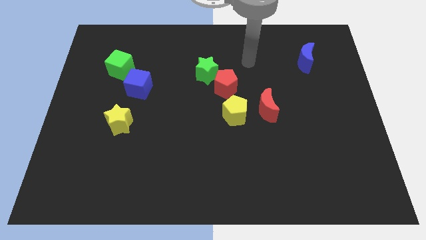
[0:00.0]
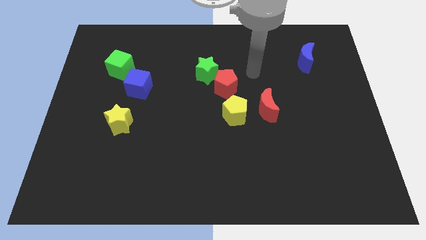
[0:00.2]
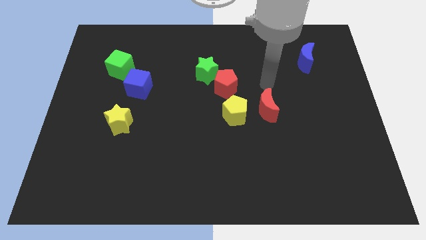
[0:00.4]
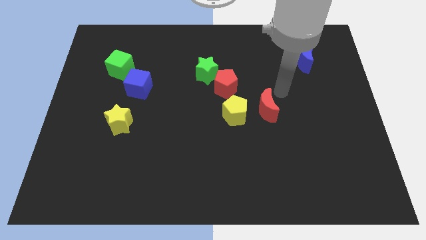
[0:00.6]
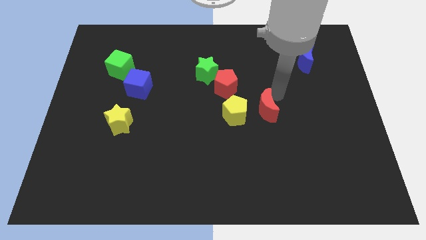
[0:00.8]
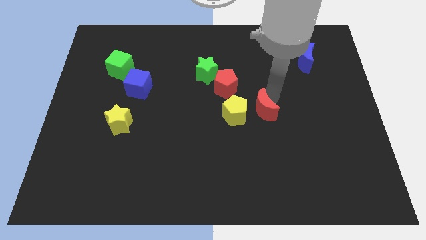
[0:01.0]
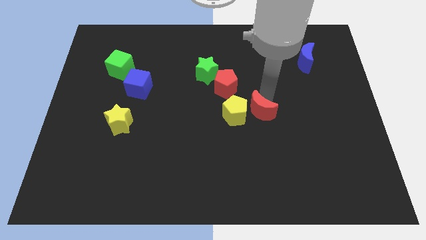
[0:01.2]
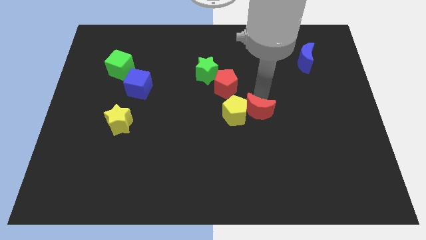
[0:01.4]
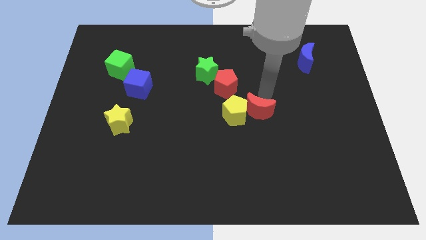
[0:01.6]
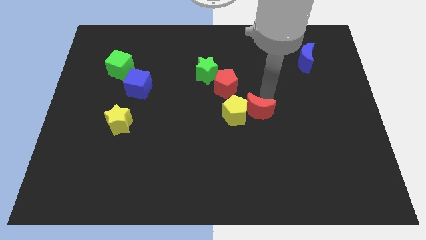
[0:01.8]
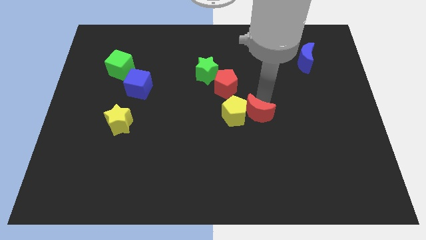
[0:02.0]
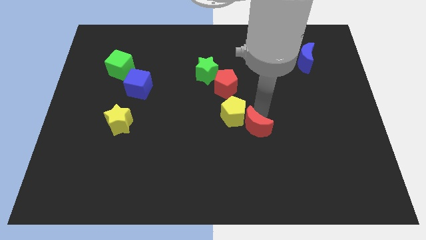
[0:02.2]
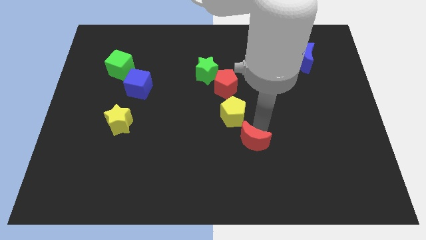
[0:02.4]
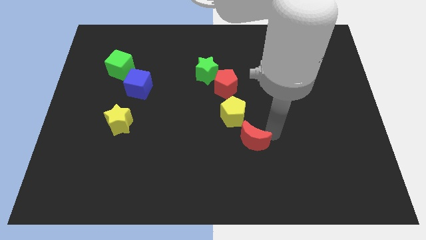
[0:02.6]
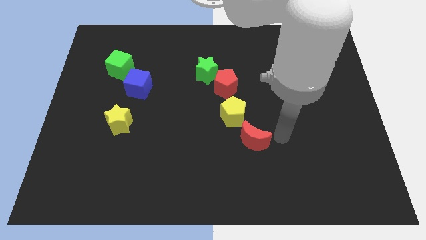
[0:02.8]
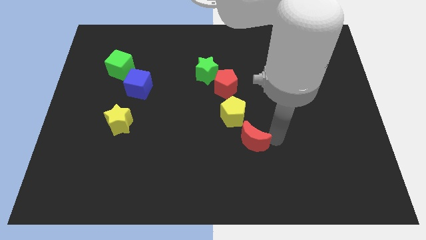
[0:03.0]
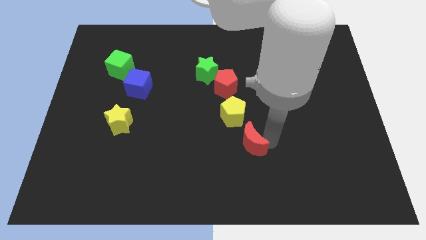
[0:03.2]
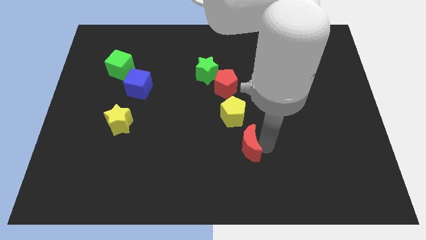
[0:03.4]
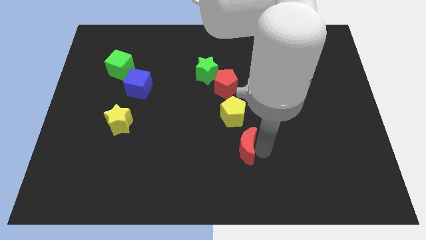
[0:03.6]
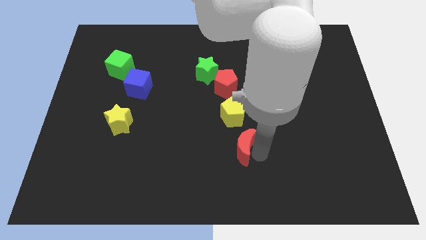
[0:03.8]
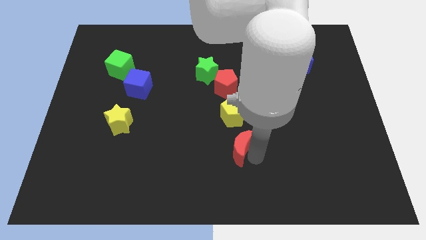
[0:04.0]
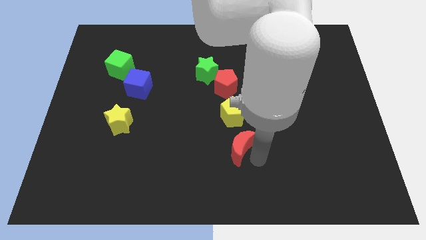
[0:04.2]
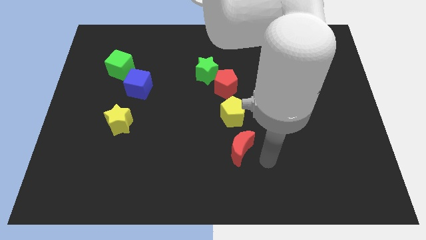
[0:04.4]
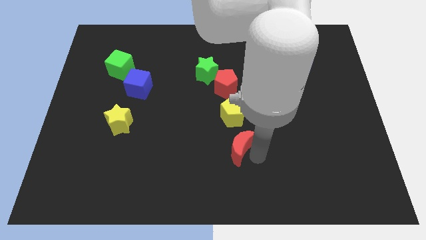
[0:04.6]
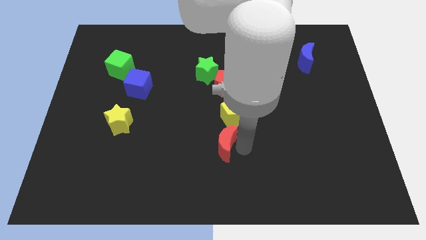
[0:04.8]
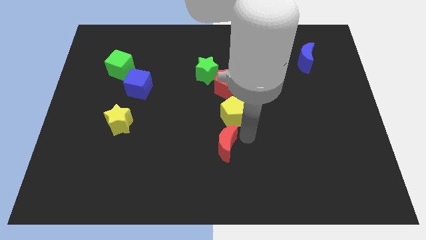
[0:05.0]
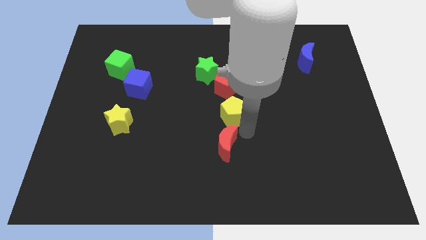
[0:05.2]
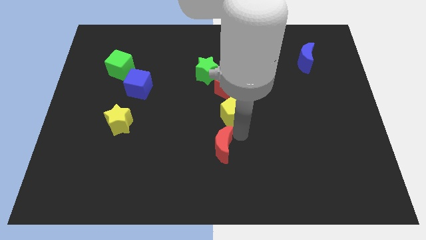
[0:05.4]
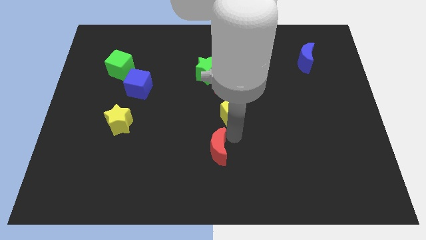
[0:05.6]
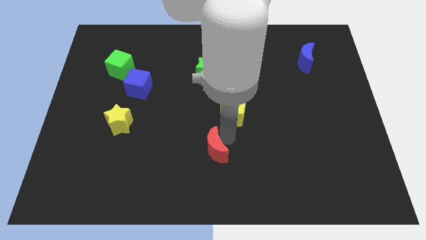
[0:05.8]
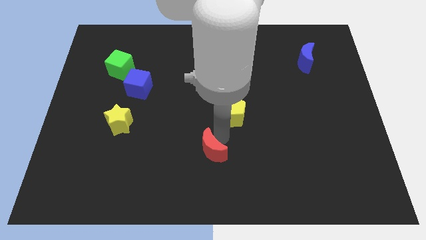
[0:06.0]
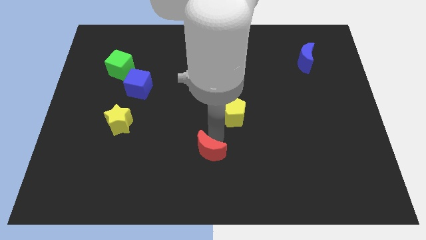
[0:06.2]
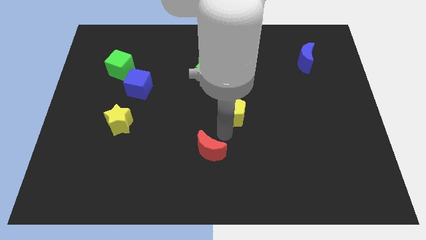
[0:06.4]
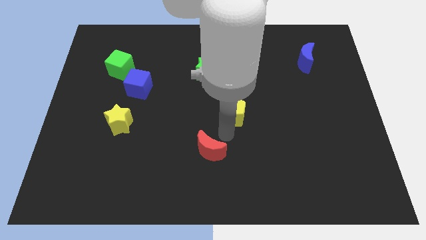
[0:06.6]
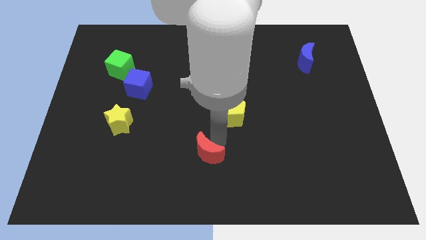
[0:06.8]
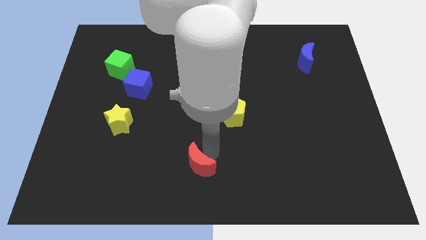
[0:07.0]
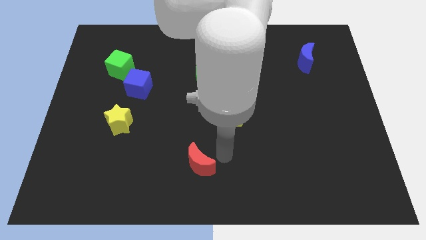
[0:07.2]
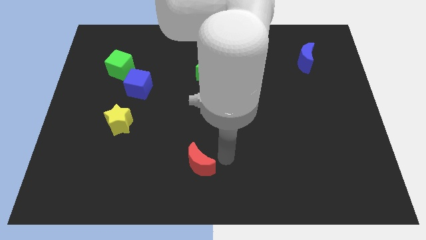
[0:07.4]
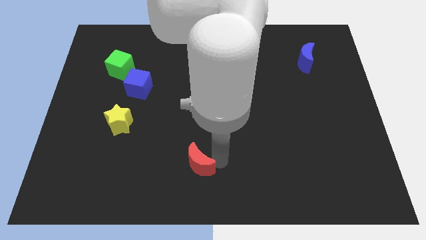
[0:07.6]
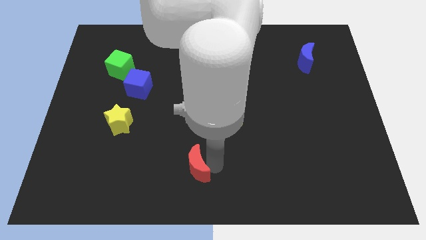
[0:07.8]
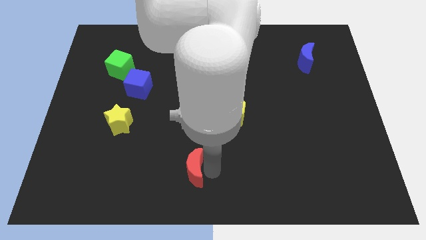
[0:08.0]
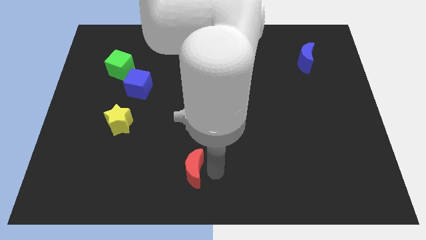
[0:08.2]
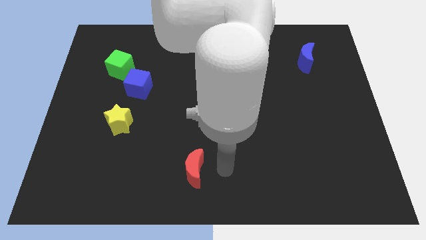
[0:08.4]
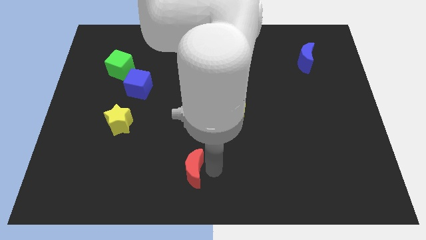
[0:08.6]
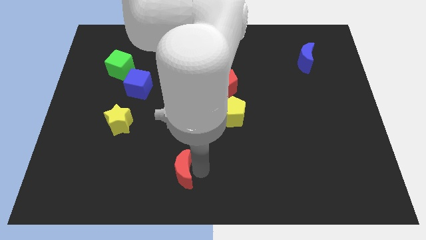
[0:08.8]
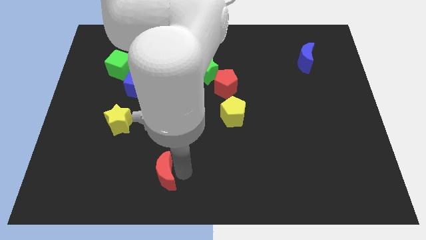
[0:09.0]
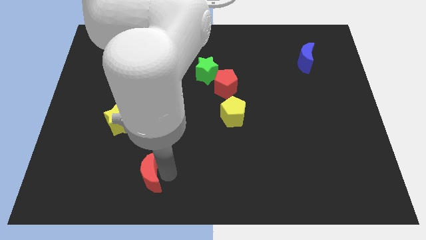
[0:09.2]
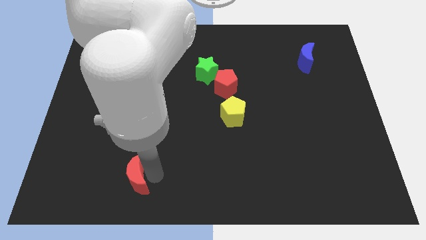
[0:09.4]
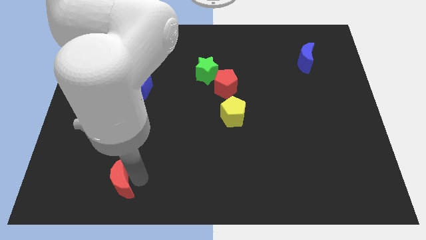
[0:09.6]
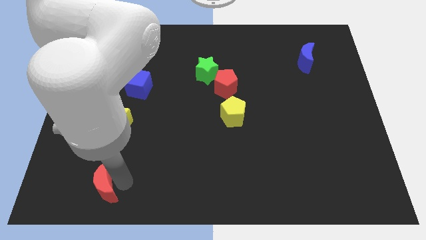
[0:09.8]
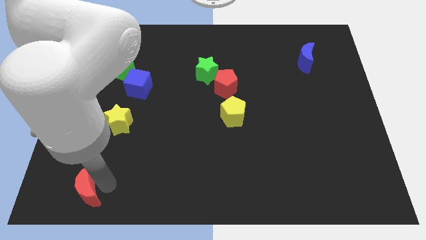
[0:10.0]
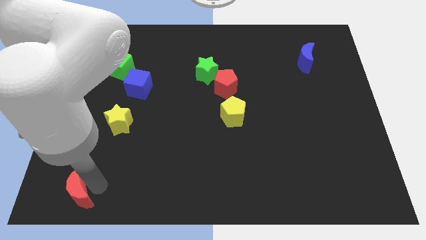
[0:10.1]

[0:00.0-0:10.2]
slide the red moon to the bottom left corner
